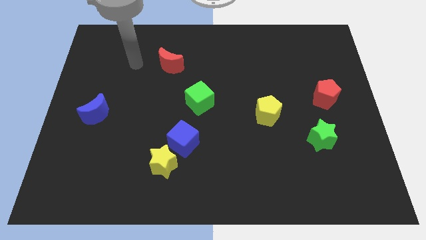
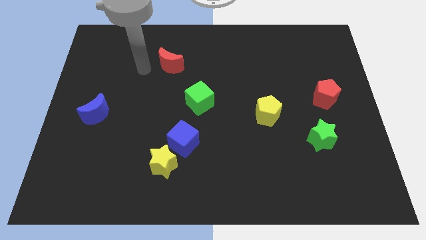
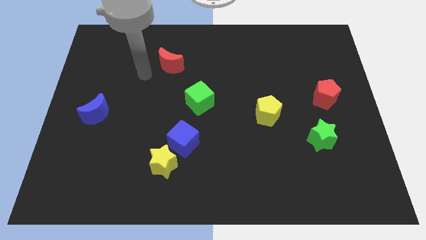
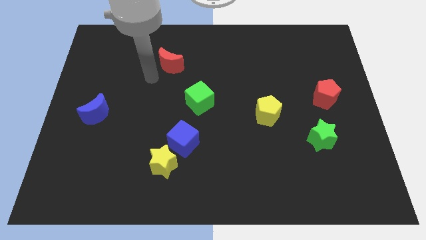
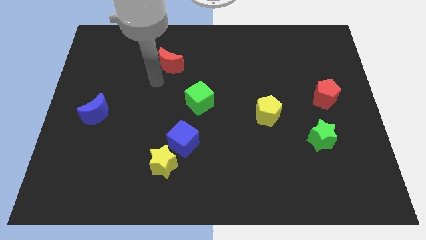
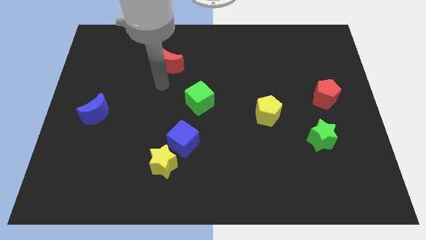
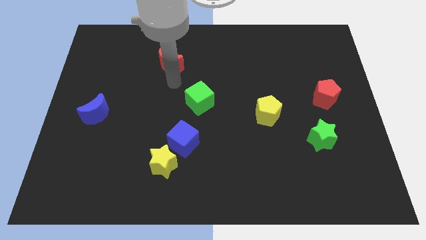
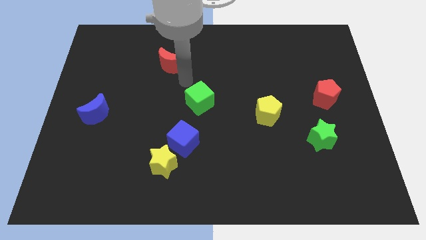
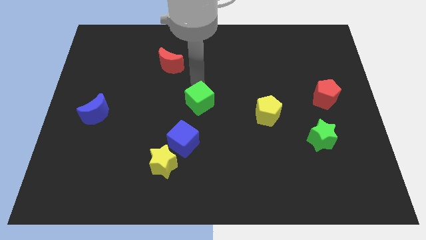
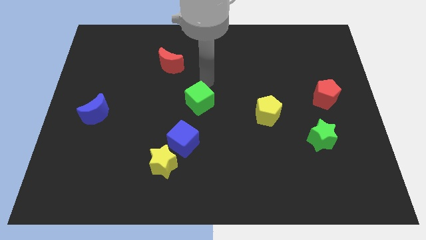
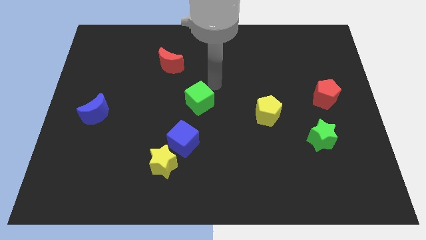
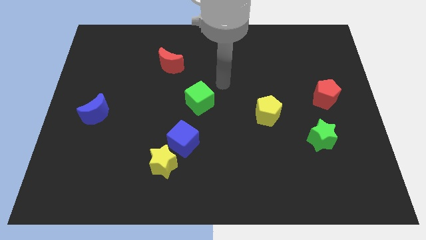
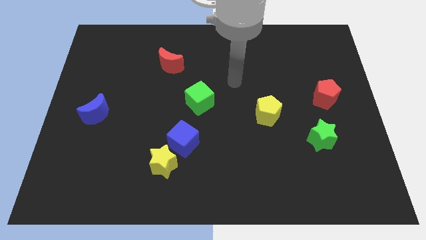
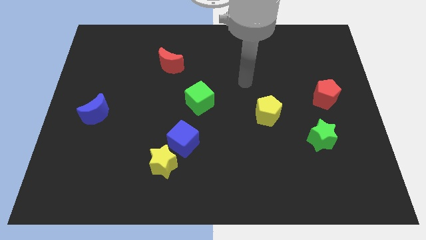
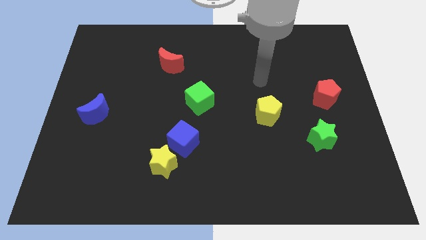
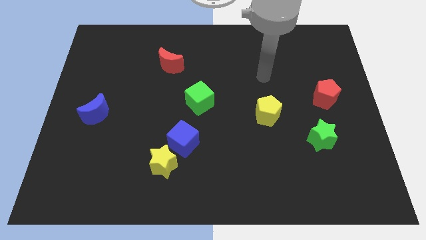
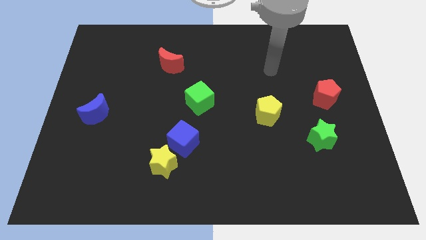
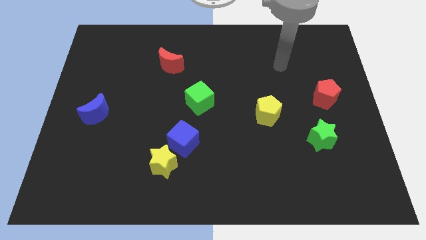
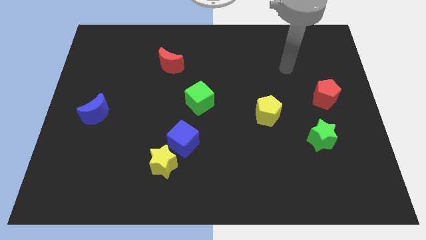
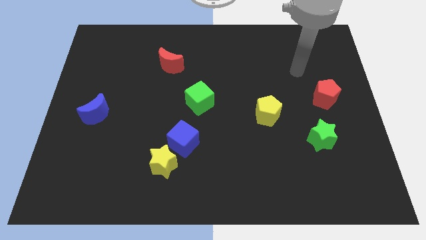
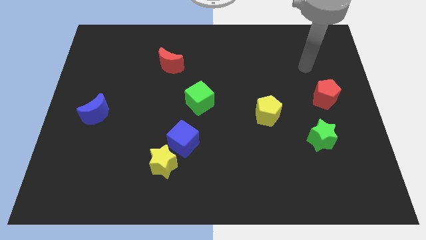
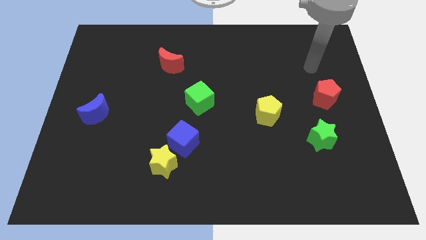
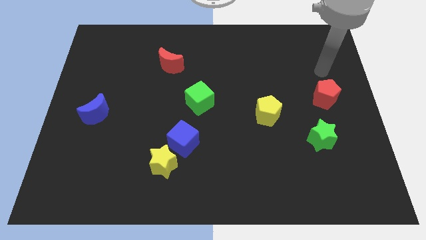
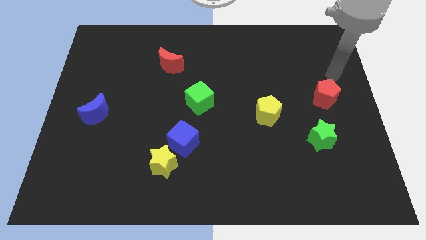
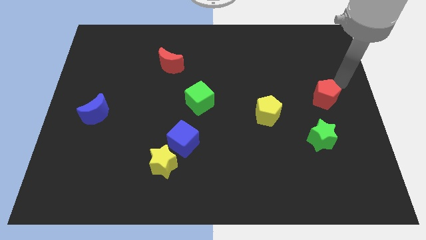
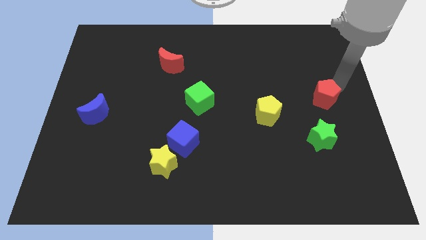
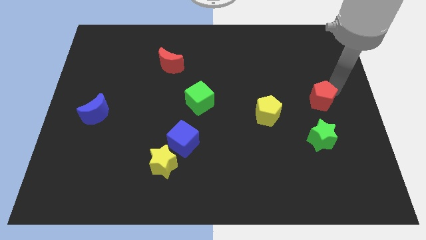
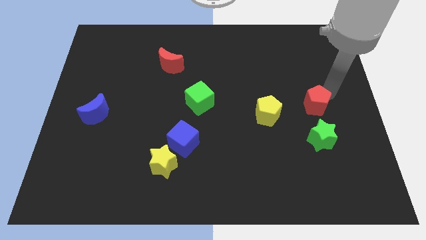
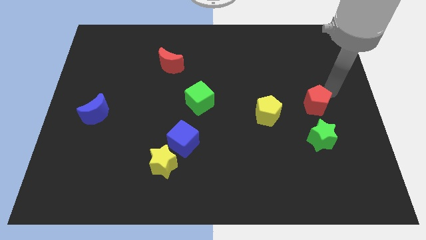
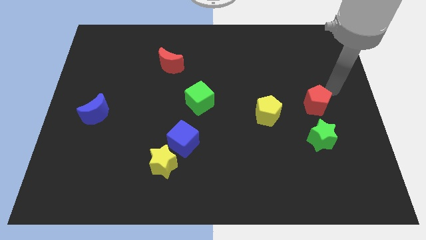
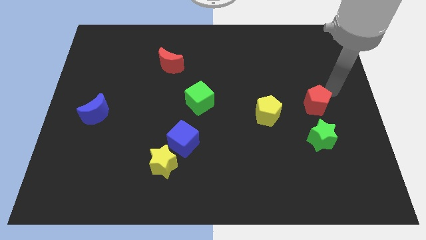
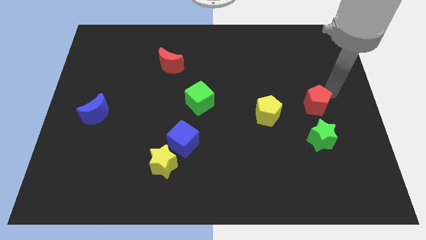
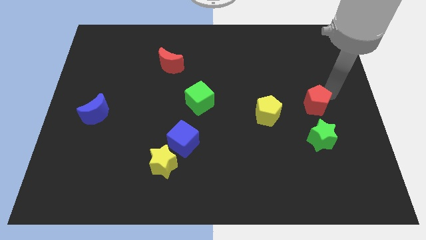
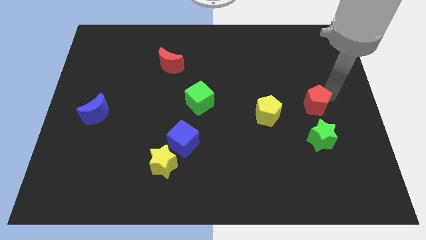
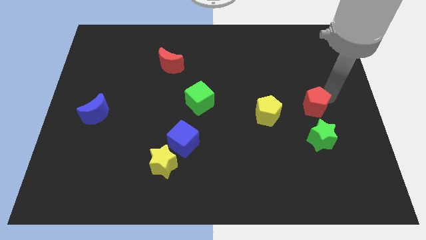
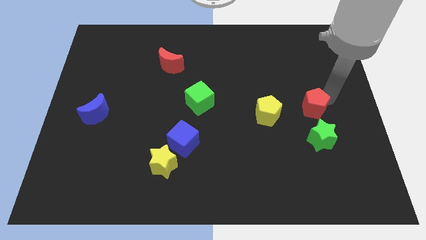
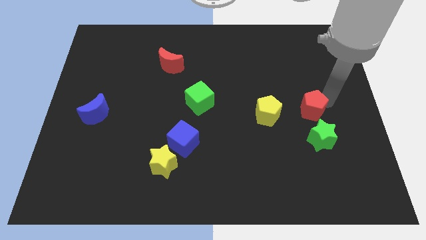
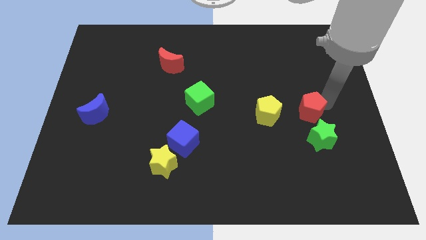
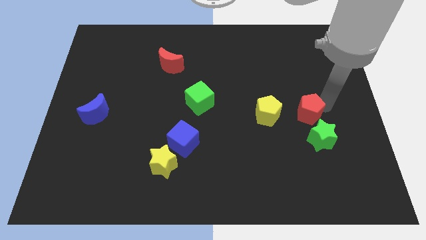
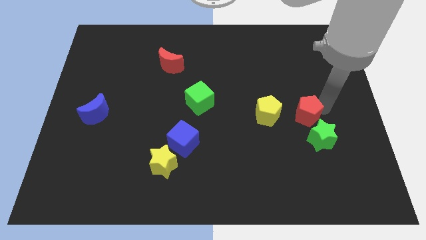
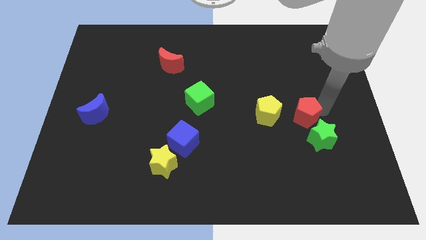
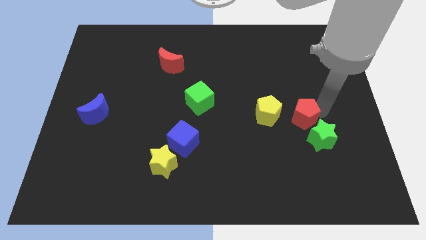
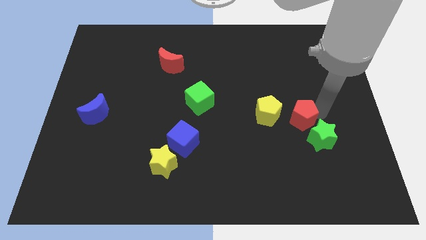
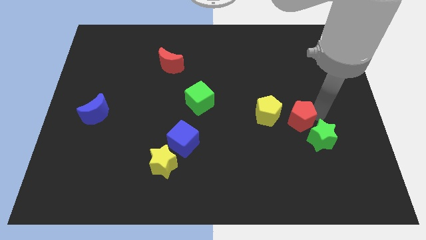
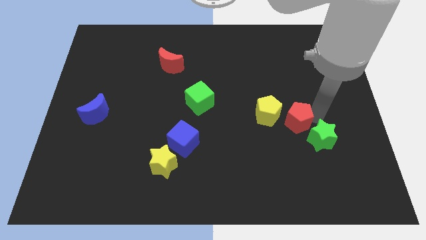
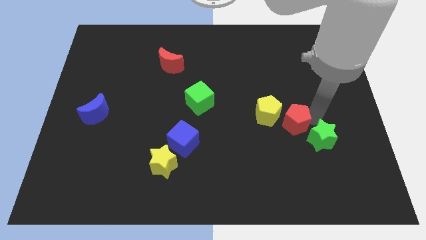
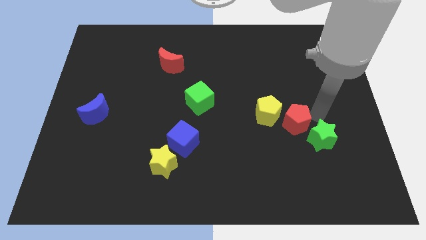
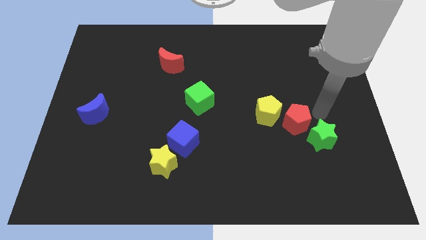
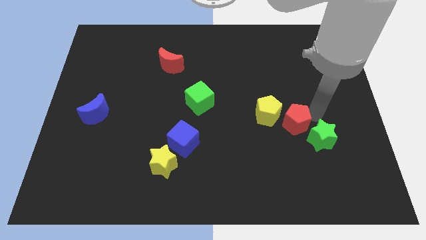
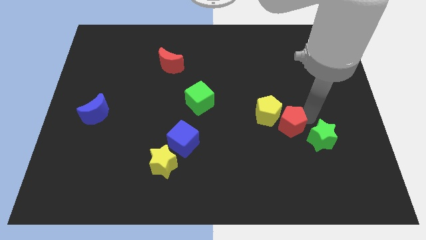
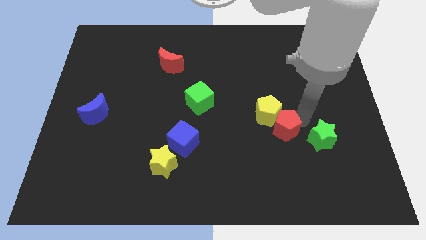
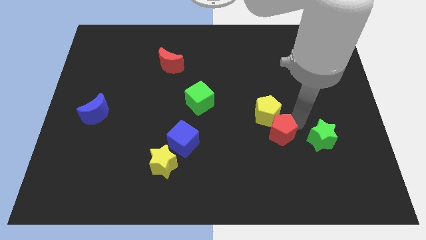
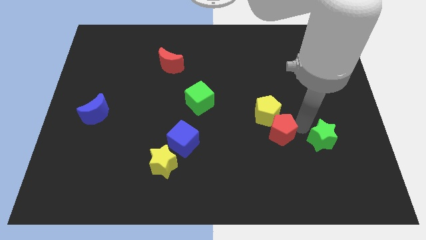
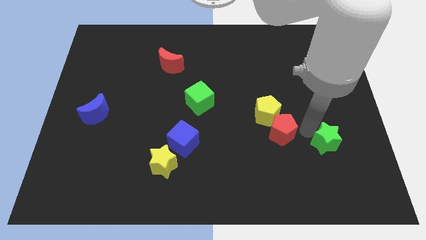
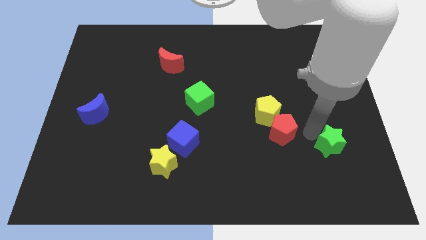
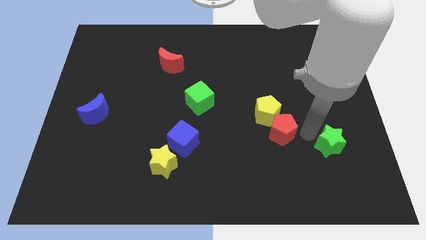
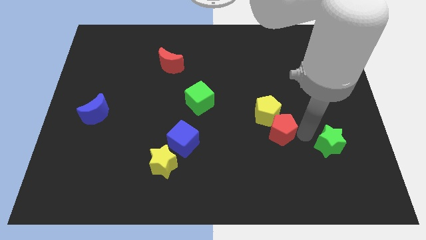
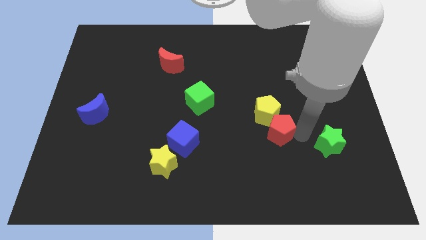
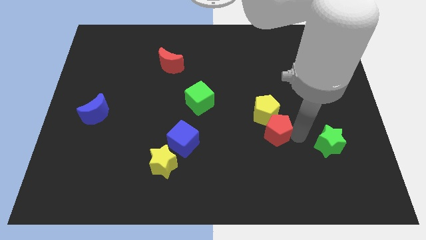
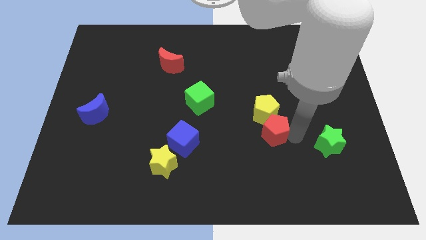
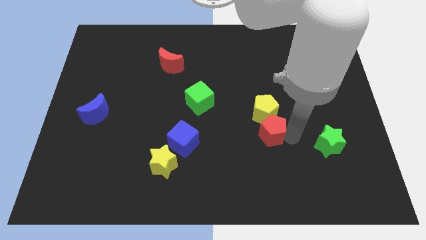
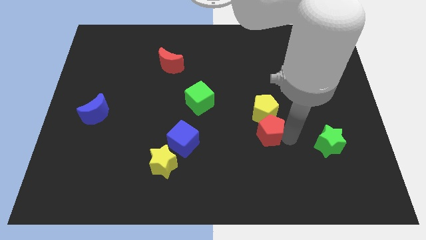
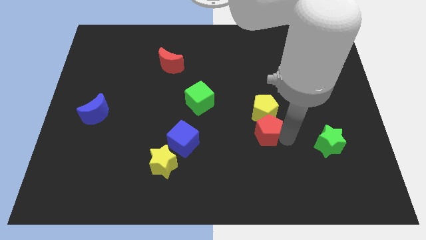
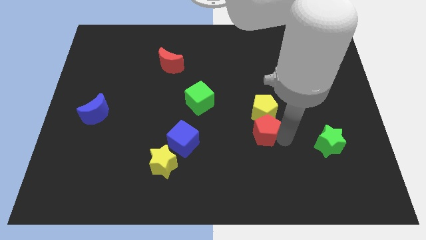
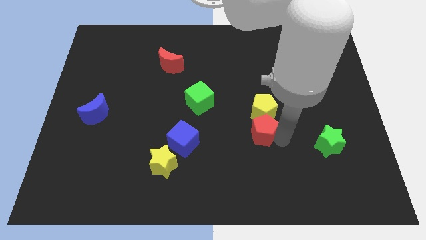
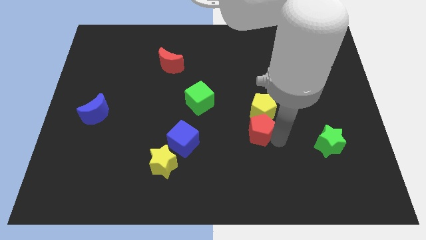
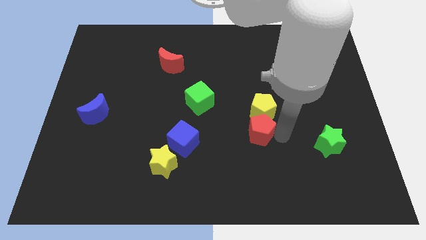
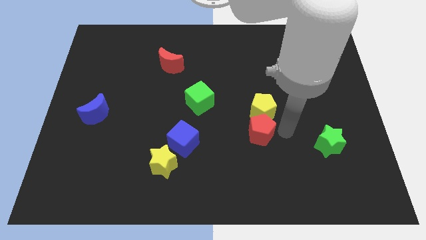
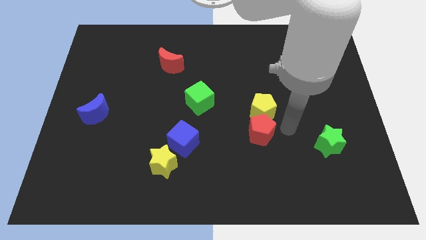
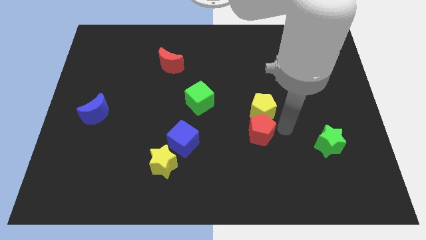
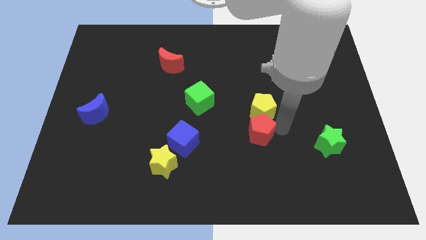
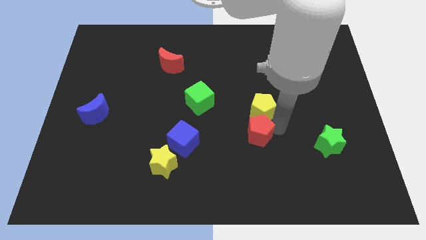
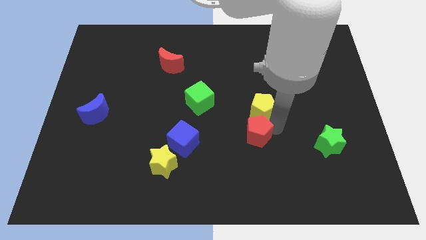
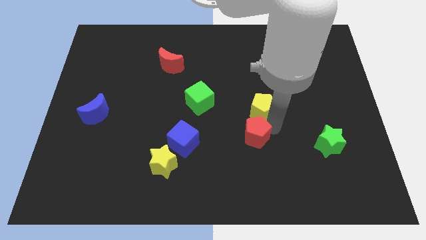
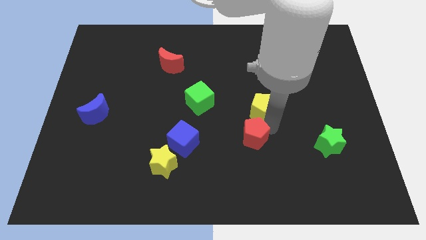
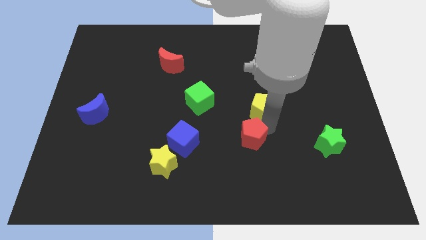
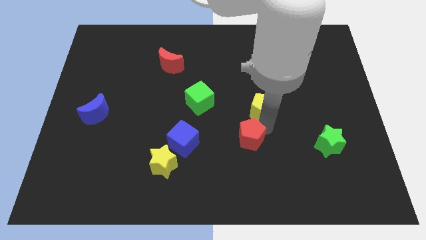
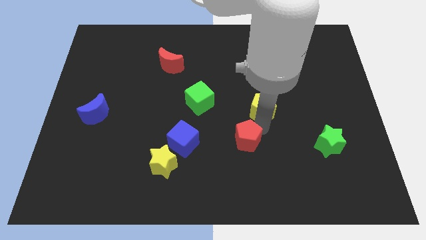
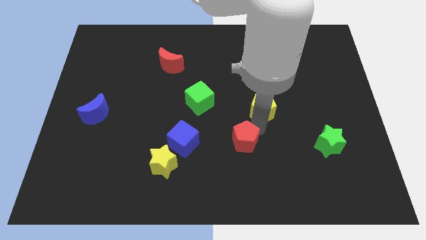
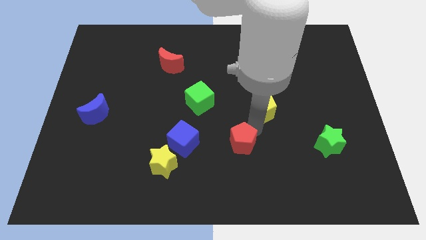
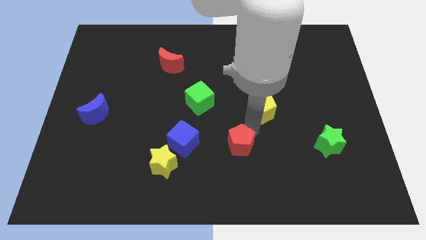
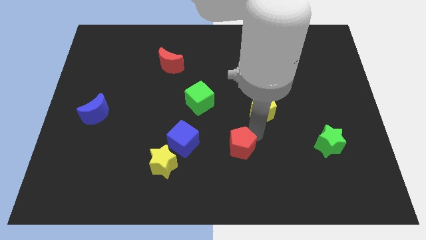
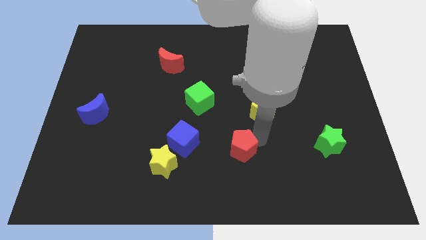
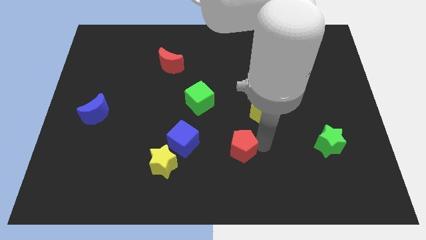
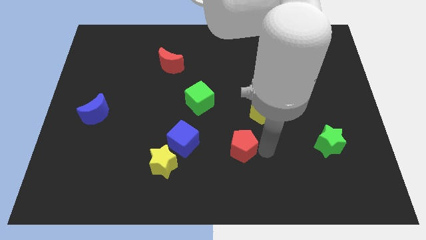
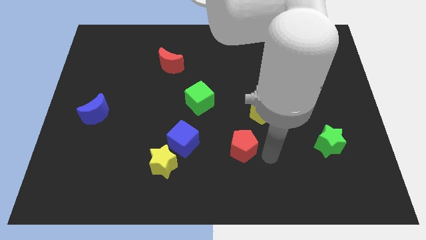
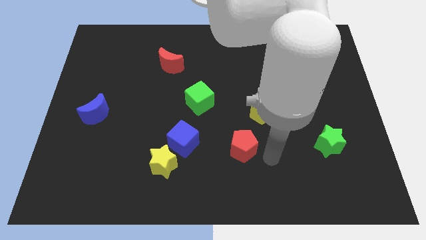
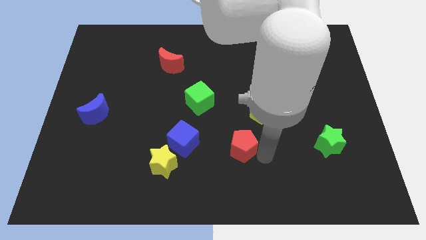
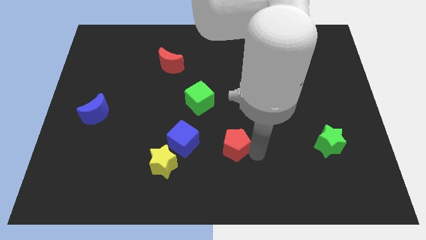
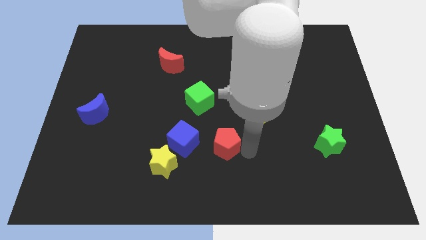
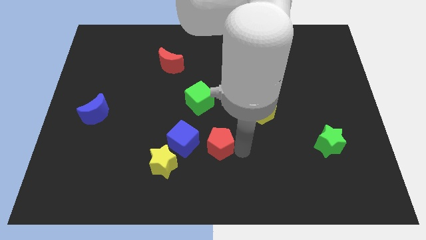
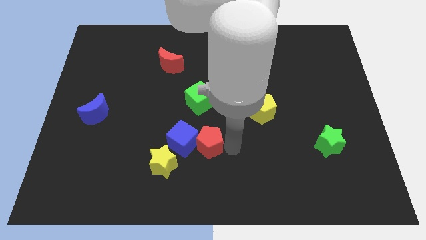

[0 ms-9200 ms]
slide the red pentagon towards the blue cube
